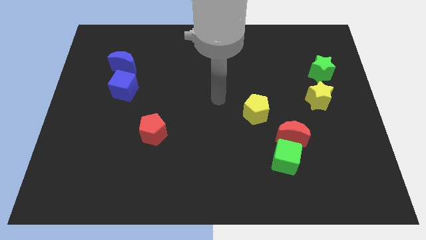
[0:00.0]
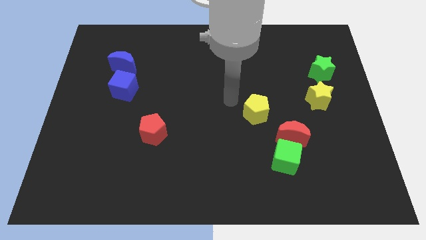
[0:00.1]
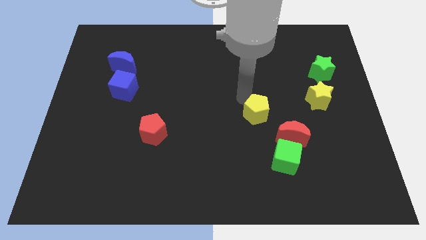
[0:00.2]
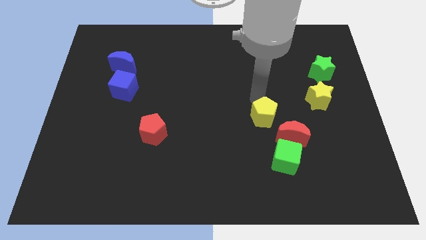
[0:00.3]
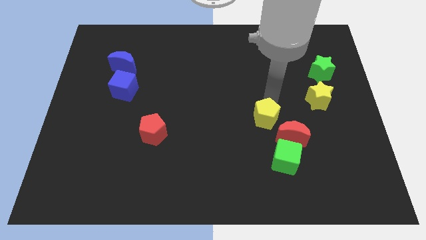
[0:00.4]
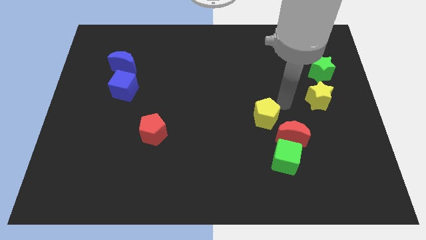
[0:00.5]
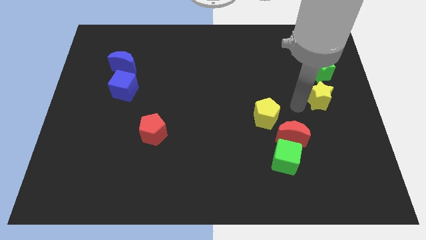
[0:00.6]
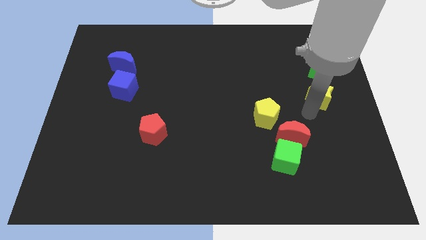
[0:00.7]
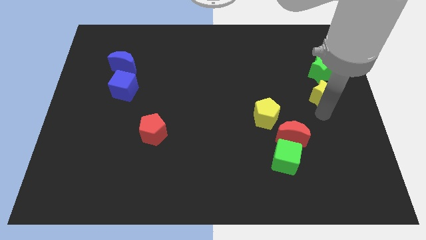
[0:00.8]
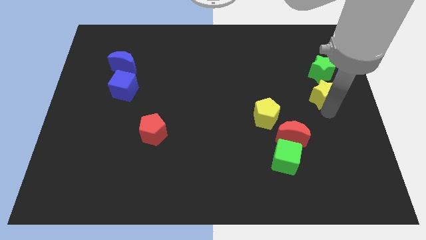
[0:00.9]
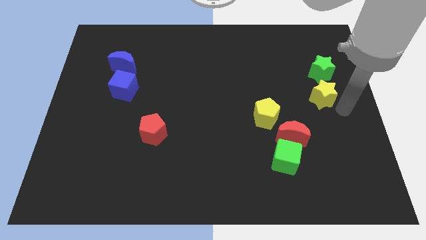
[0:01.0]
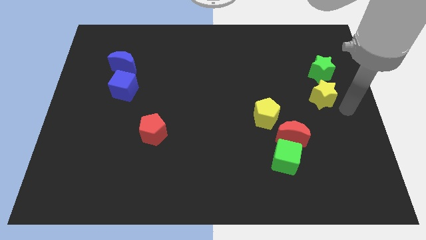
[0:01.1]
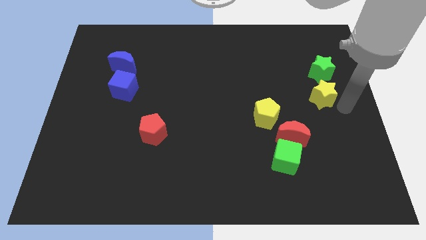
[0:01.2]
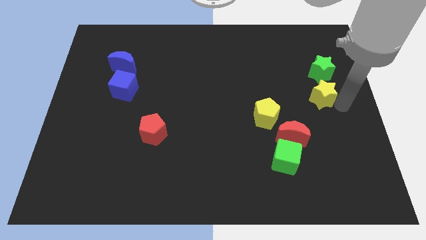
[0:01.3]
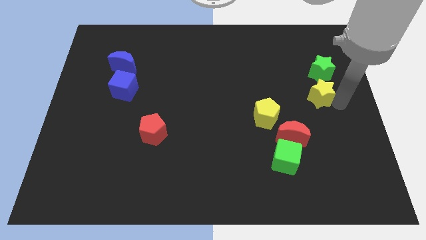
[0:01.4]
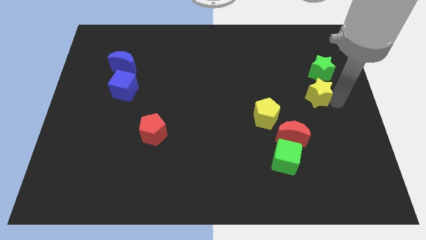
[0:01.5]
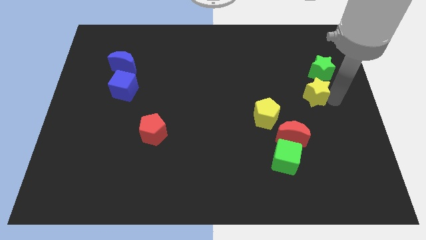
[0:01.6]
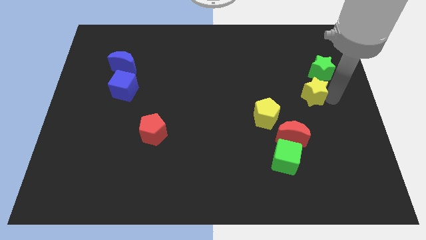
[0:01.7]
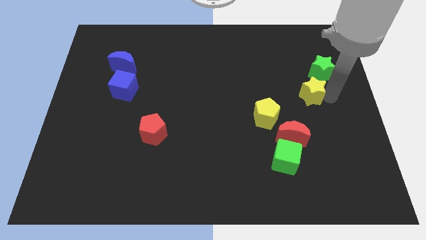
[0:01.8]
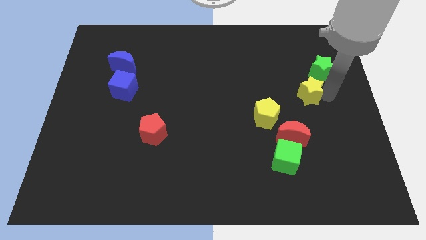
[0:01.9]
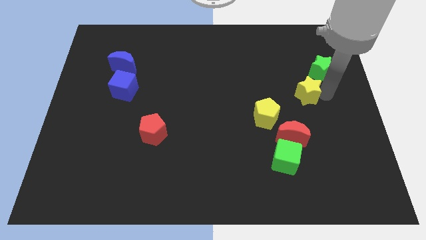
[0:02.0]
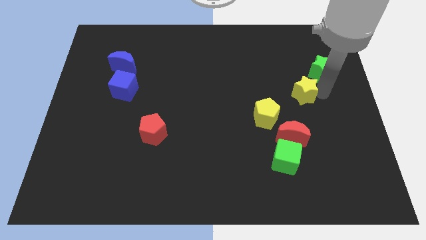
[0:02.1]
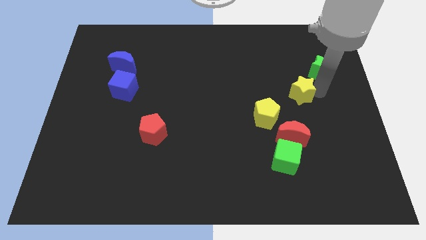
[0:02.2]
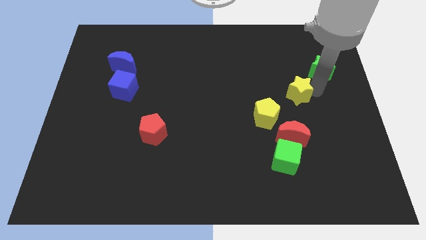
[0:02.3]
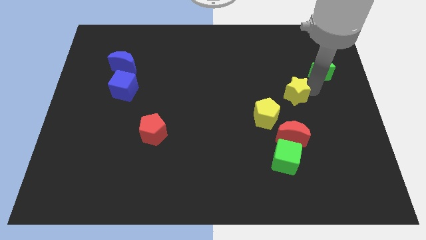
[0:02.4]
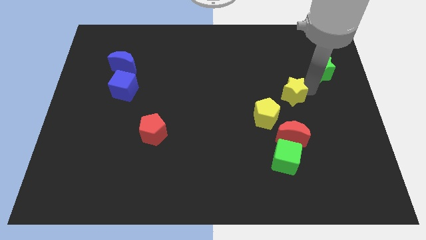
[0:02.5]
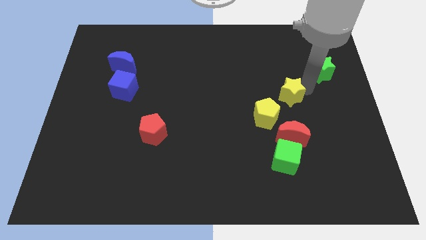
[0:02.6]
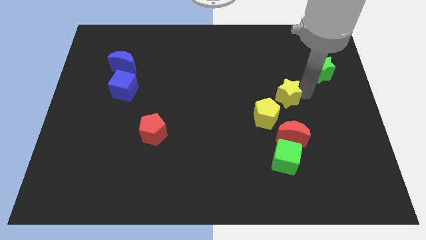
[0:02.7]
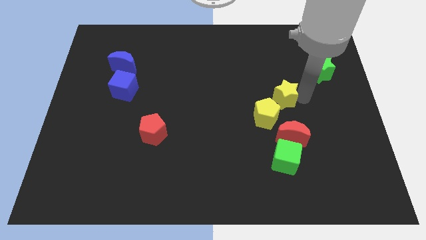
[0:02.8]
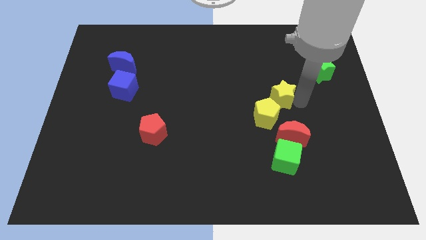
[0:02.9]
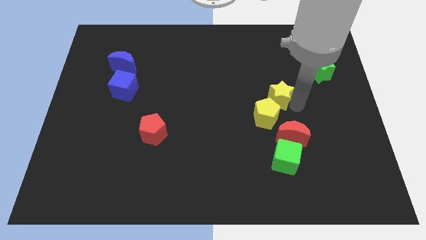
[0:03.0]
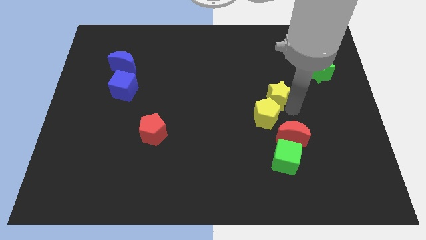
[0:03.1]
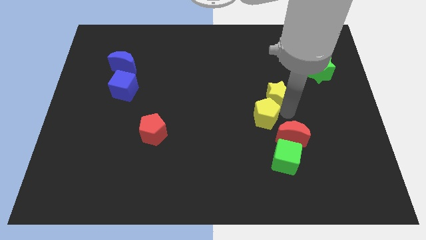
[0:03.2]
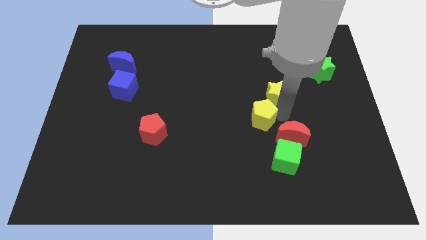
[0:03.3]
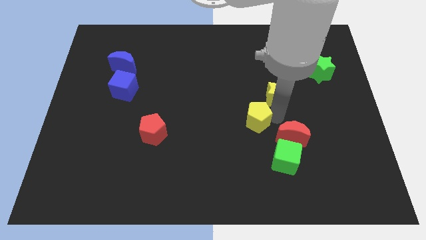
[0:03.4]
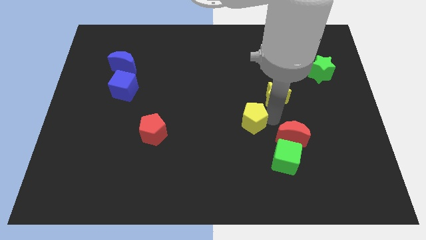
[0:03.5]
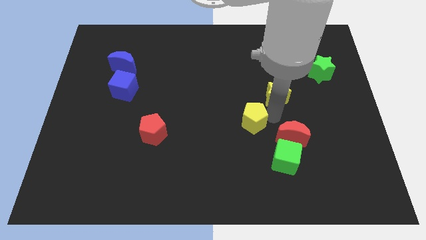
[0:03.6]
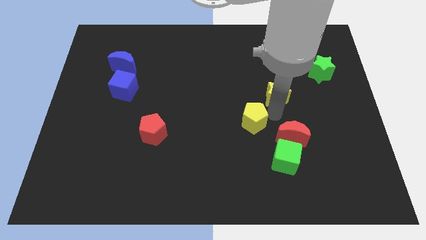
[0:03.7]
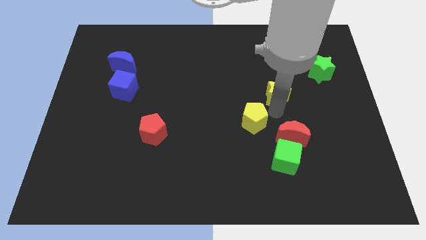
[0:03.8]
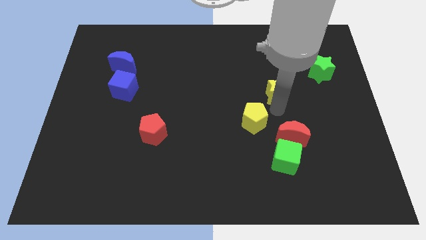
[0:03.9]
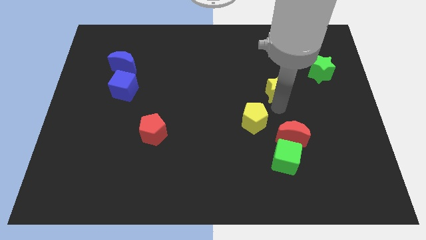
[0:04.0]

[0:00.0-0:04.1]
slightly slide the yellow star upwards and to the left

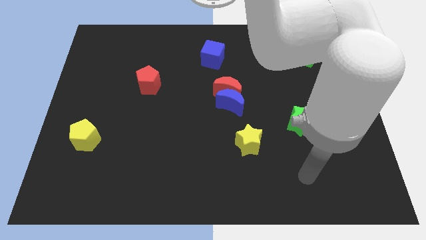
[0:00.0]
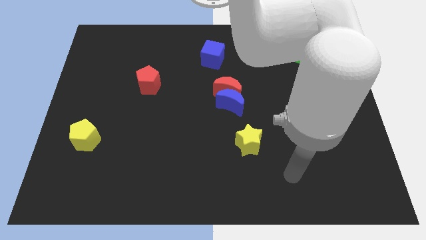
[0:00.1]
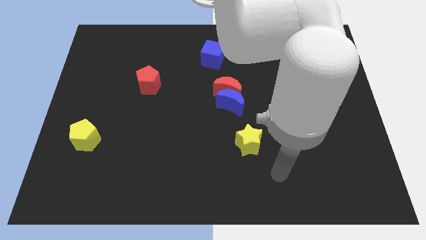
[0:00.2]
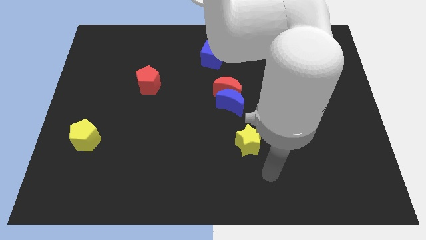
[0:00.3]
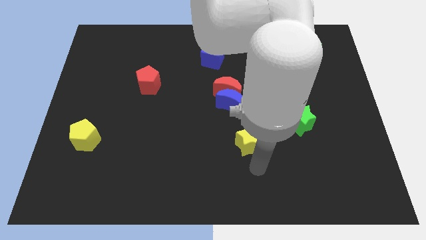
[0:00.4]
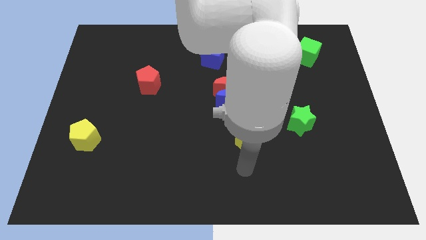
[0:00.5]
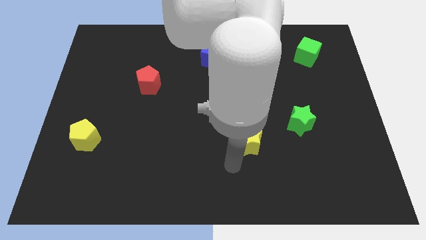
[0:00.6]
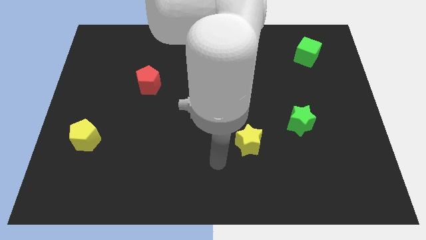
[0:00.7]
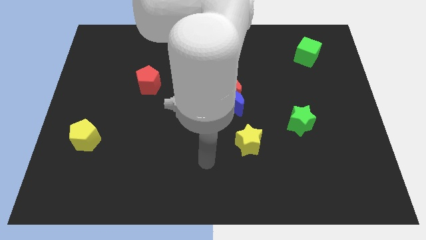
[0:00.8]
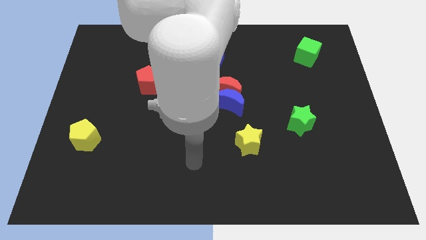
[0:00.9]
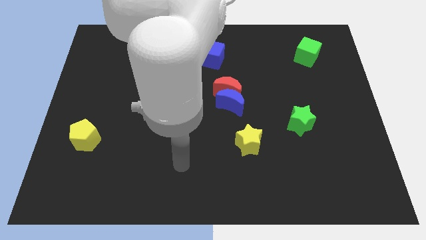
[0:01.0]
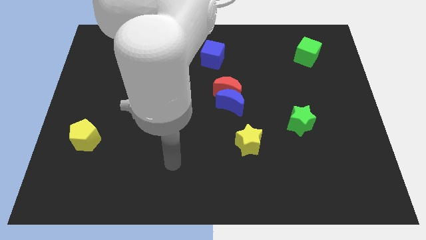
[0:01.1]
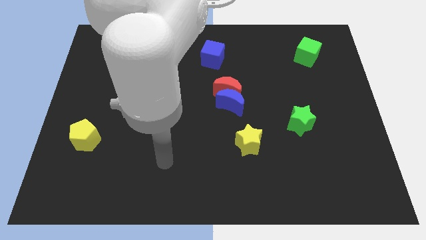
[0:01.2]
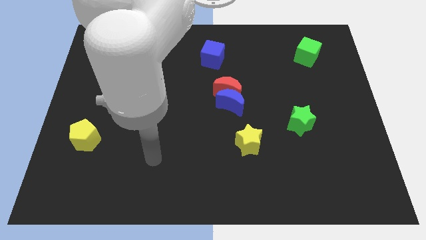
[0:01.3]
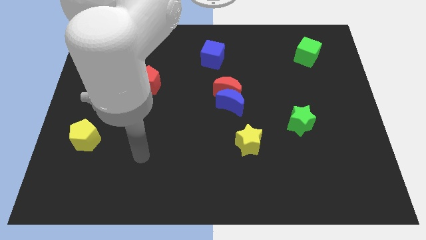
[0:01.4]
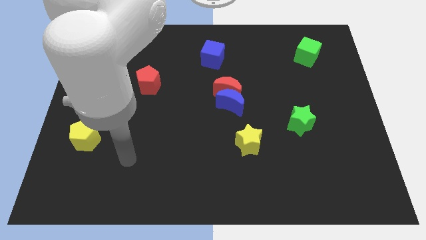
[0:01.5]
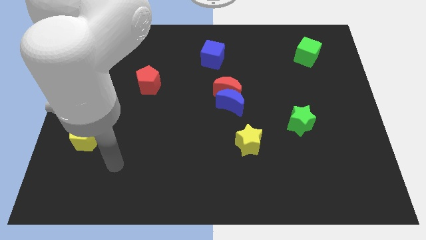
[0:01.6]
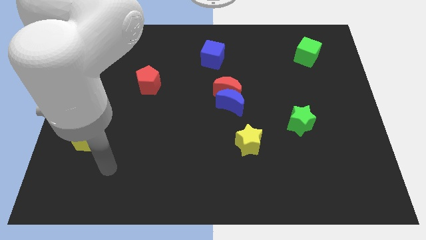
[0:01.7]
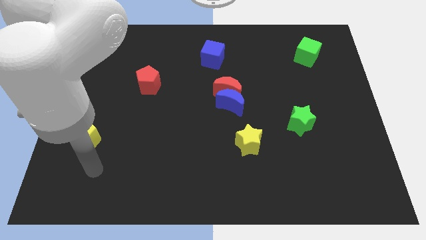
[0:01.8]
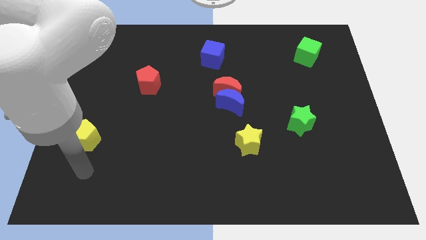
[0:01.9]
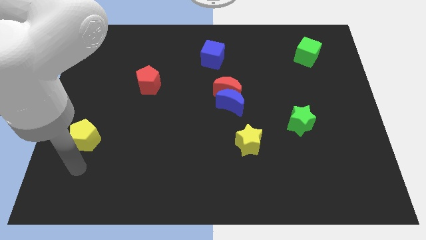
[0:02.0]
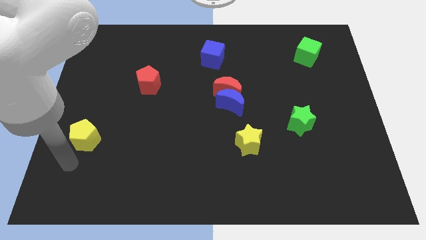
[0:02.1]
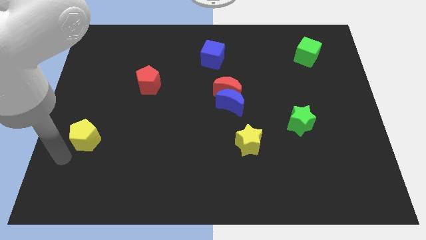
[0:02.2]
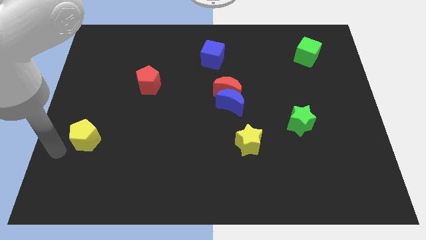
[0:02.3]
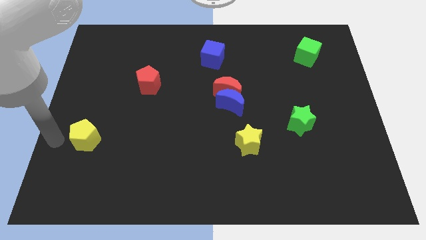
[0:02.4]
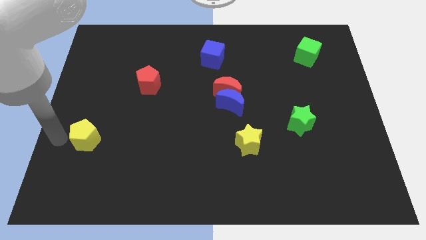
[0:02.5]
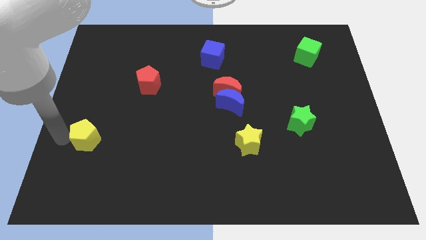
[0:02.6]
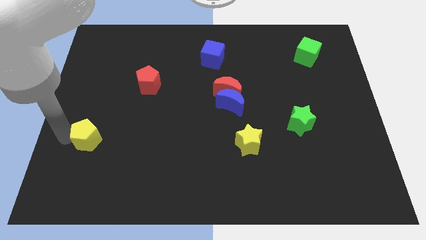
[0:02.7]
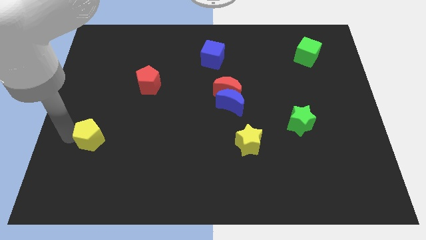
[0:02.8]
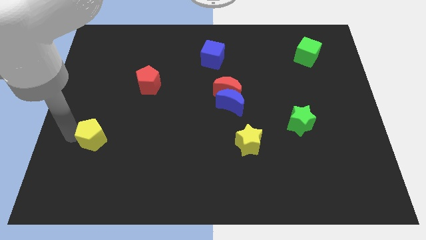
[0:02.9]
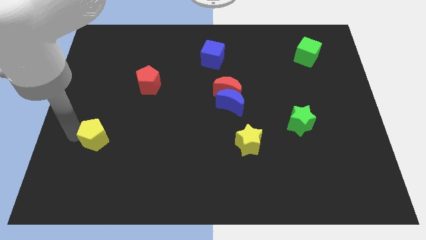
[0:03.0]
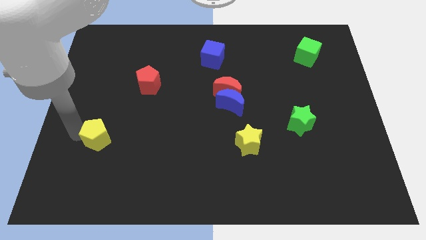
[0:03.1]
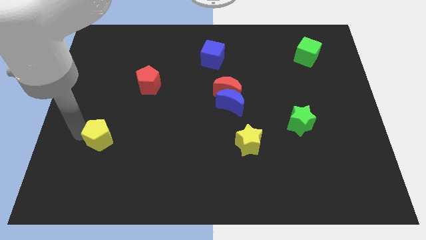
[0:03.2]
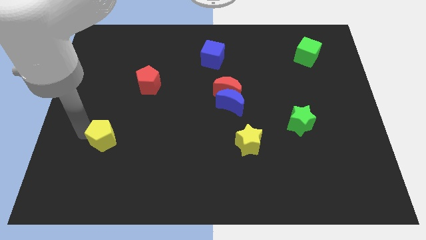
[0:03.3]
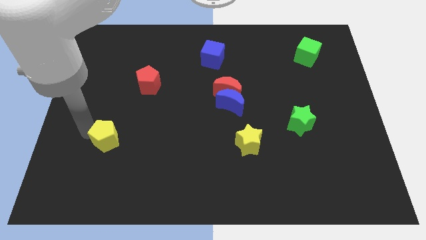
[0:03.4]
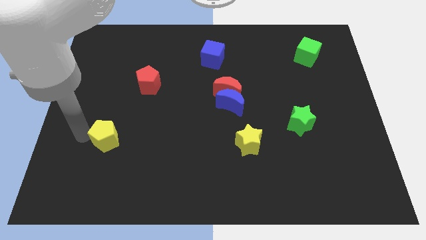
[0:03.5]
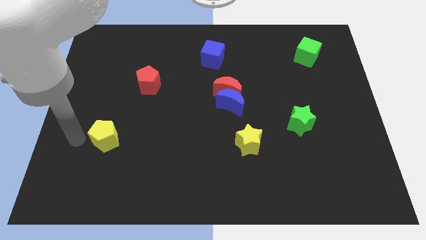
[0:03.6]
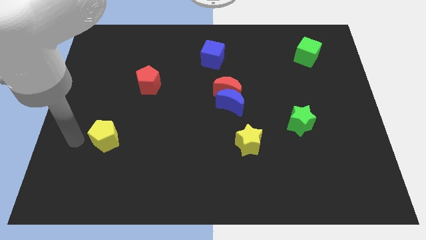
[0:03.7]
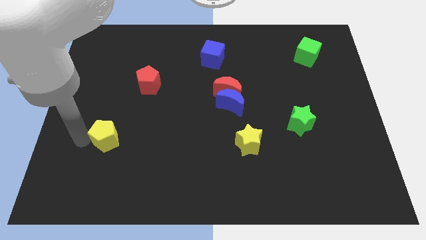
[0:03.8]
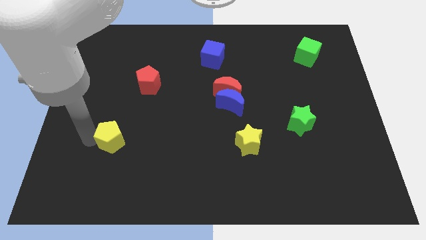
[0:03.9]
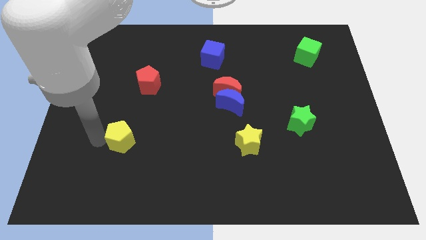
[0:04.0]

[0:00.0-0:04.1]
move the yellow pentagon a little bit right
